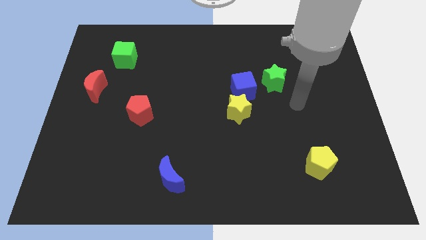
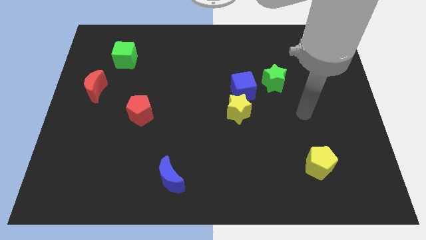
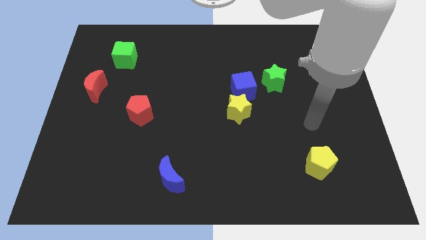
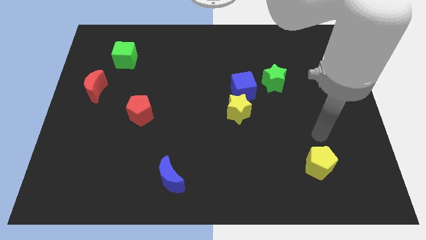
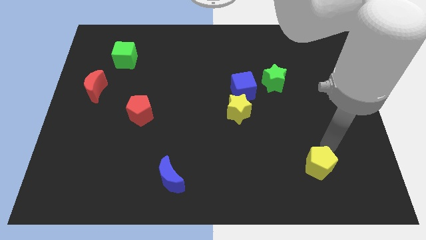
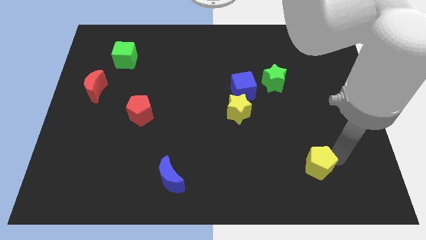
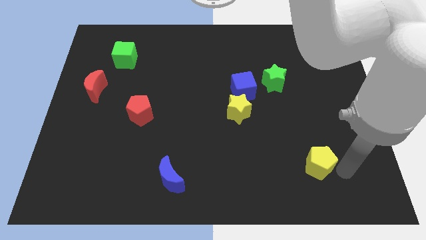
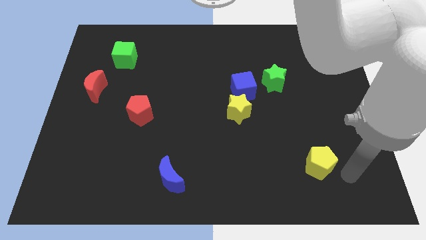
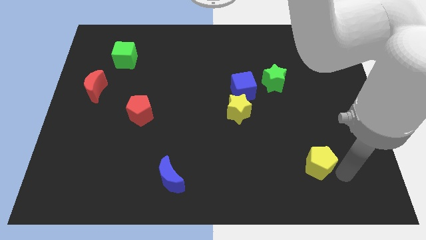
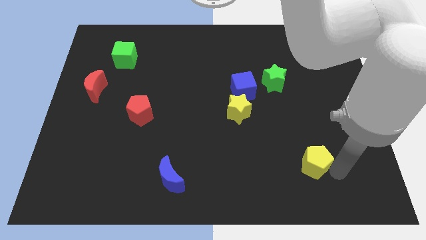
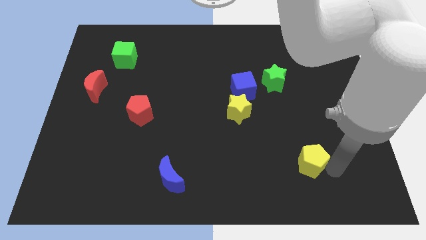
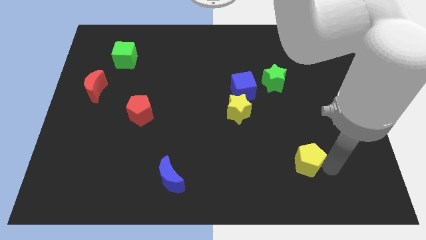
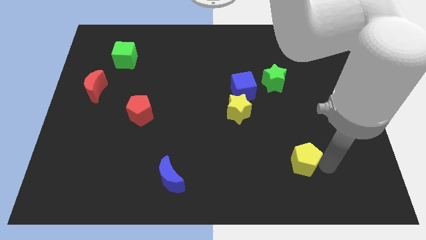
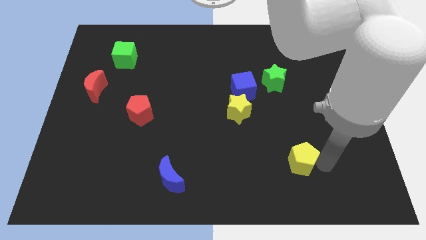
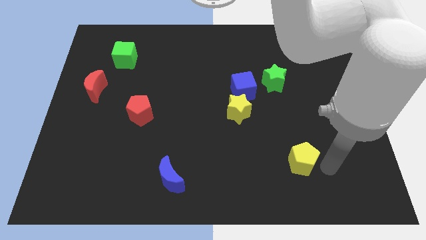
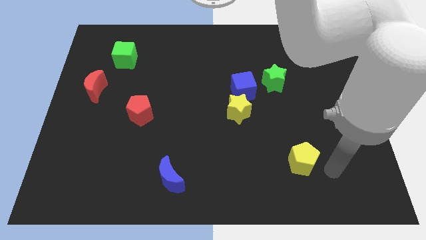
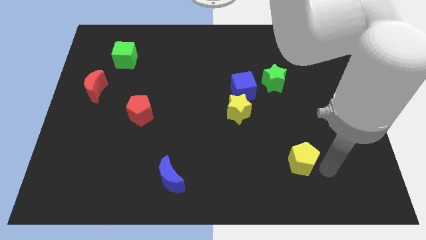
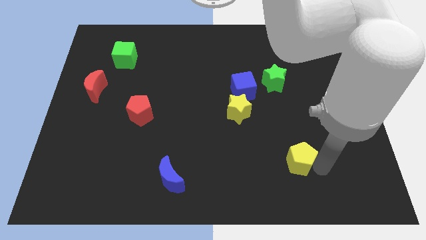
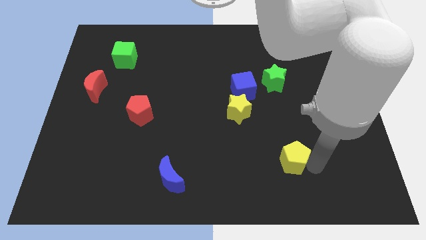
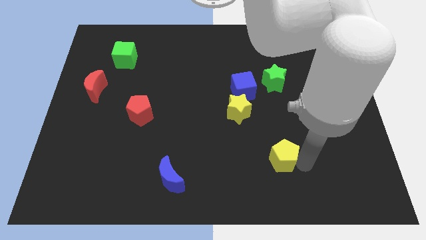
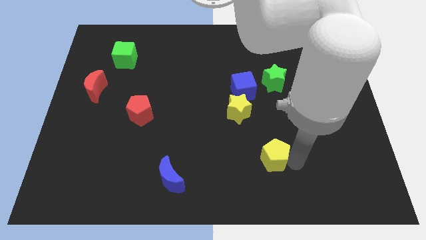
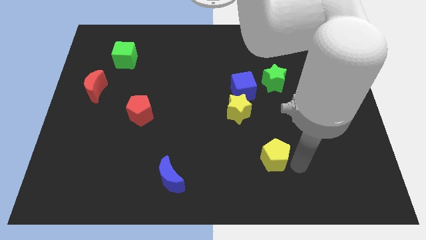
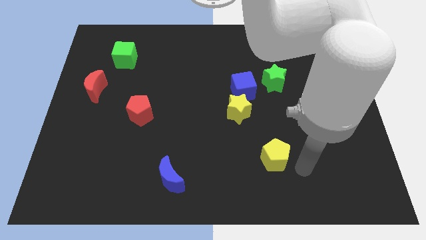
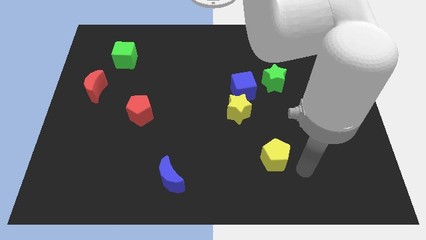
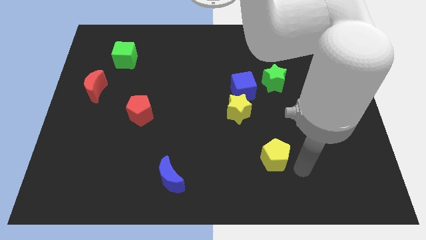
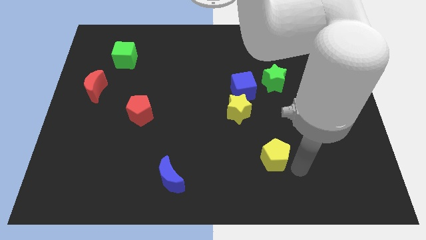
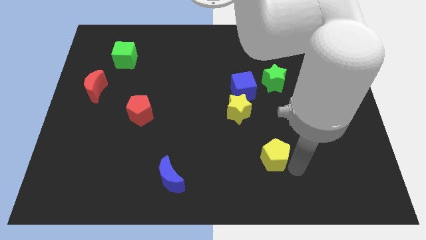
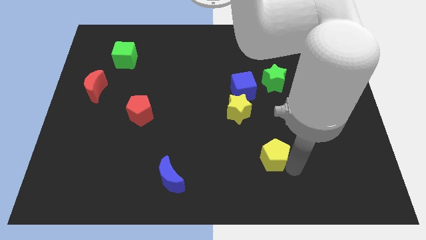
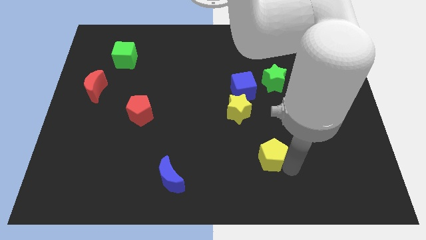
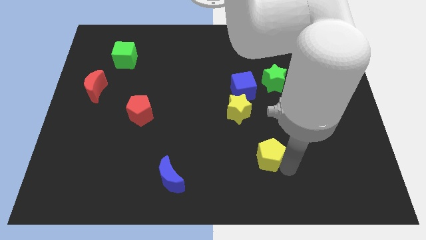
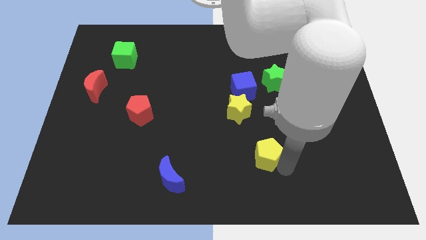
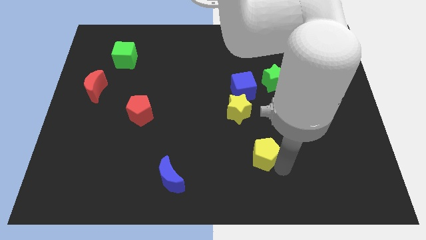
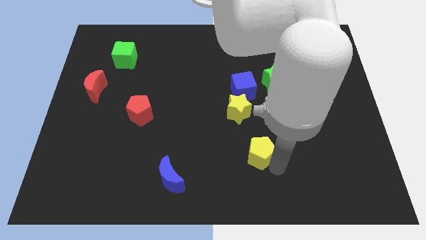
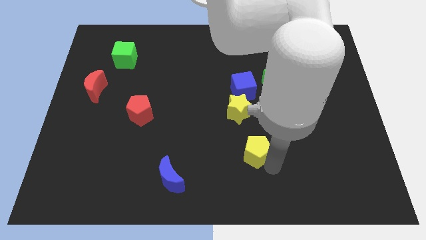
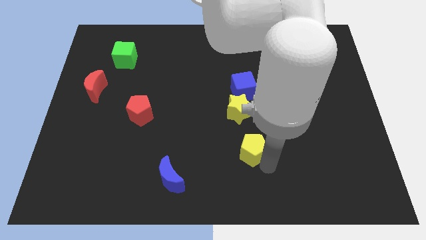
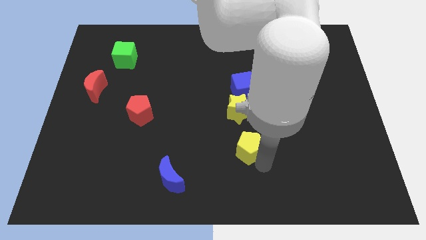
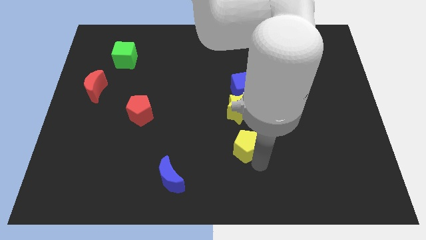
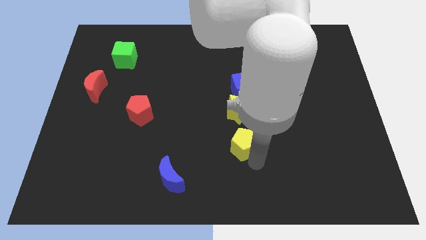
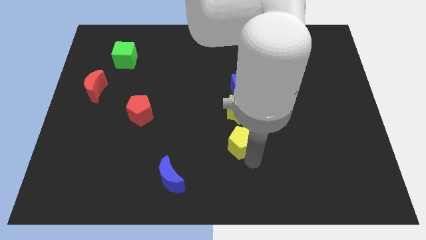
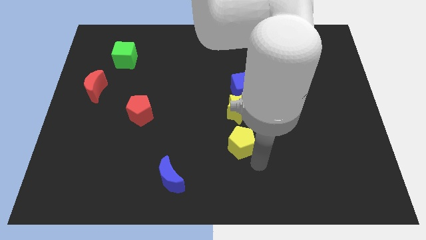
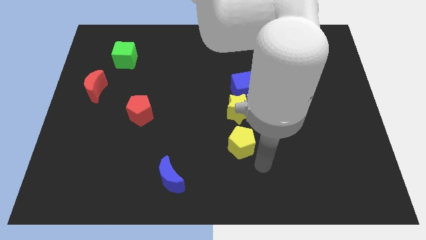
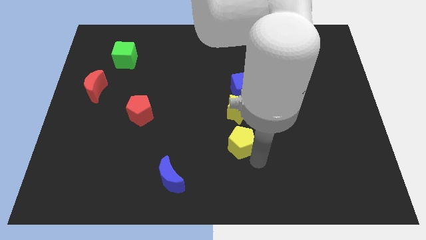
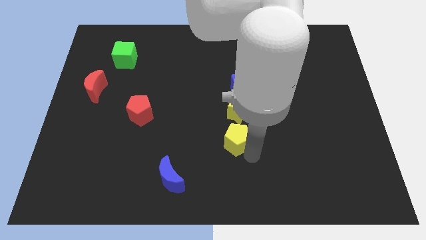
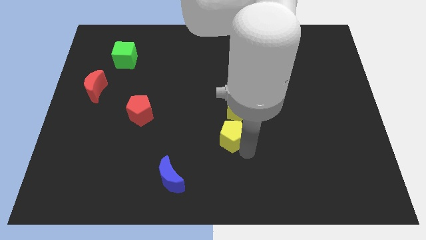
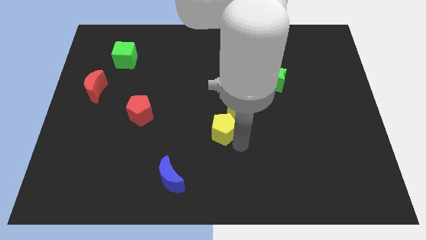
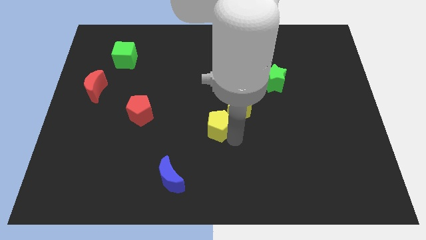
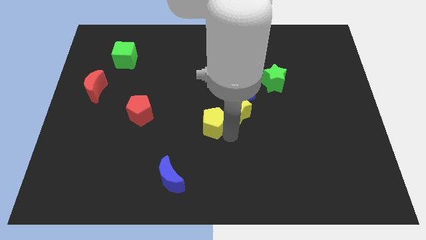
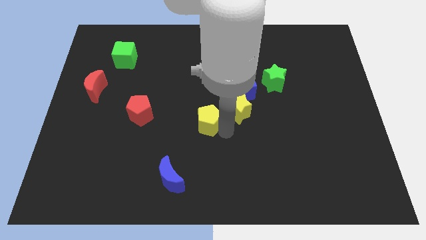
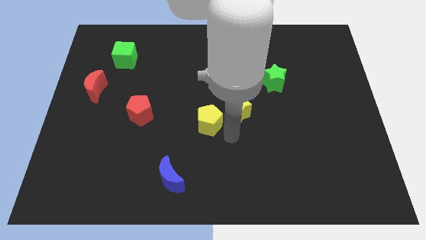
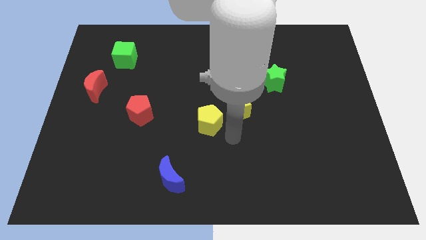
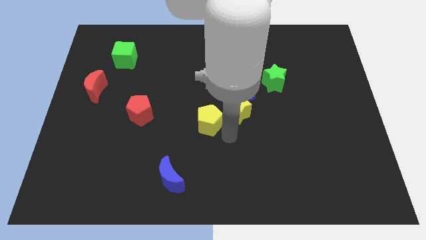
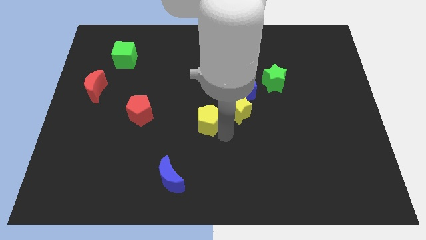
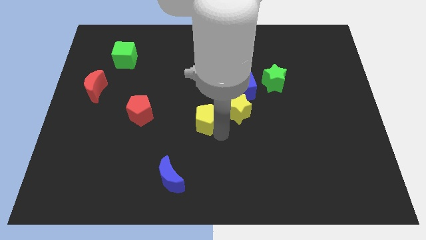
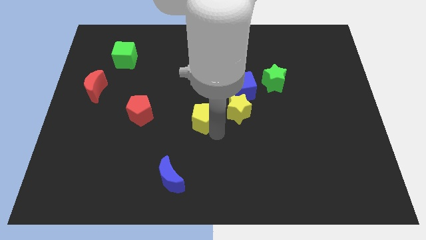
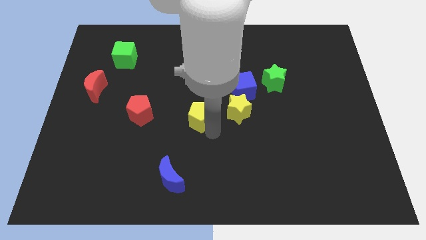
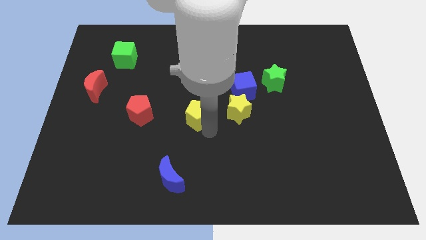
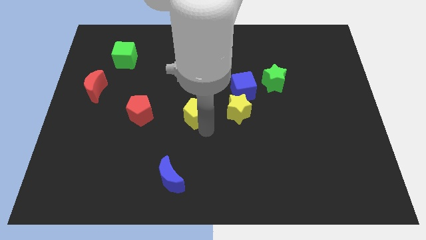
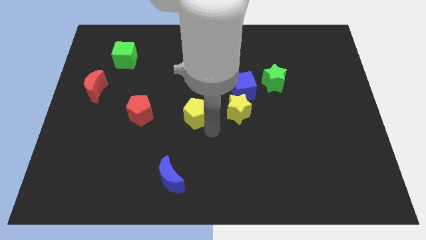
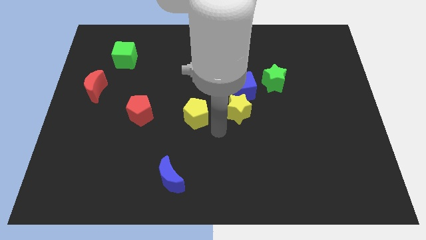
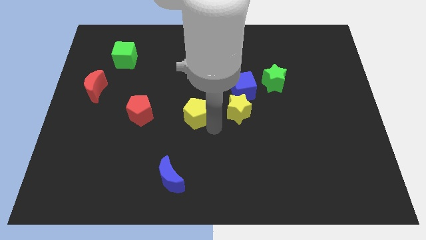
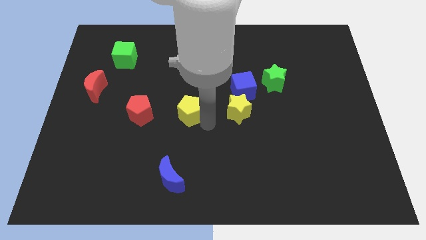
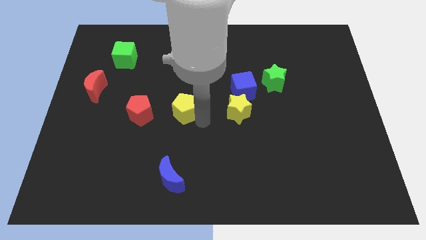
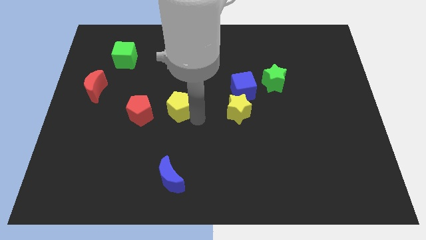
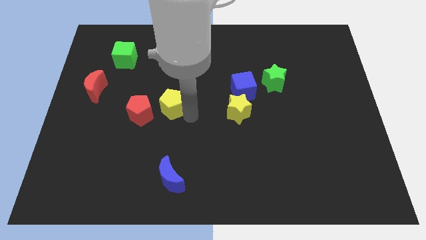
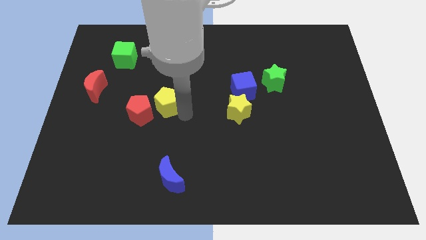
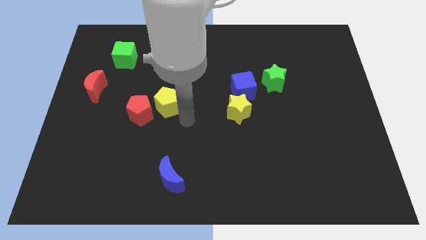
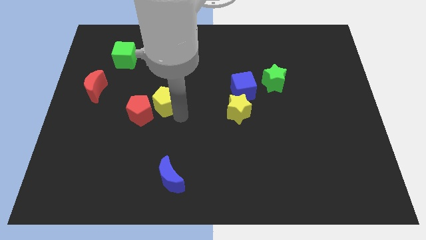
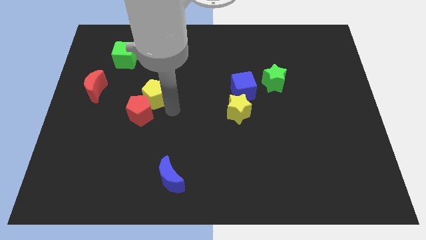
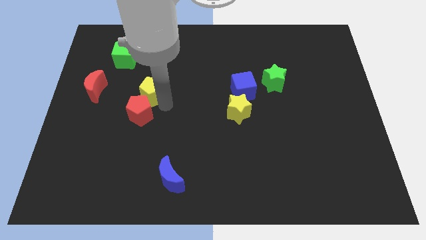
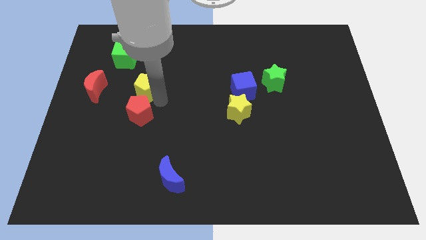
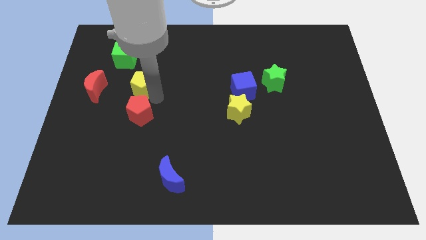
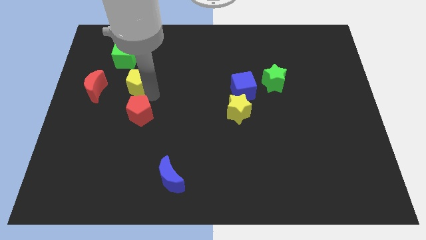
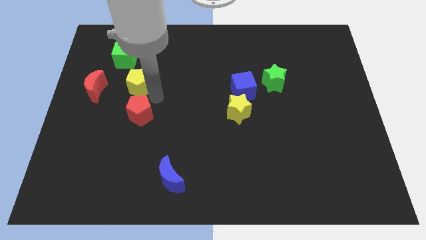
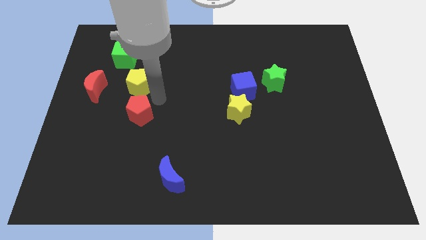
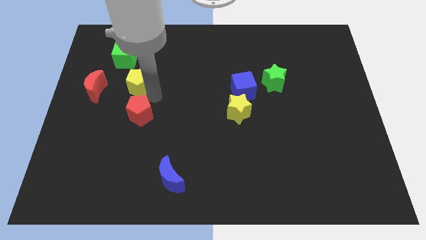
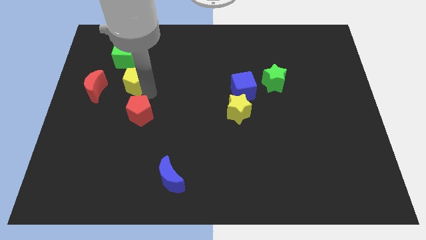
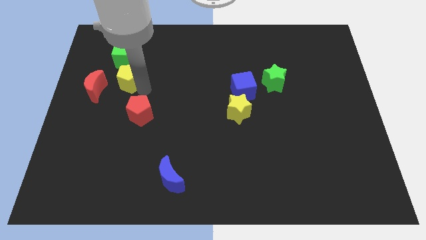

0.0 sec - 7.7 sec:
slide the yellow pentagon to the top right side of the red moon

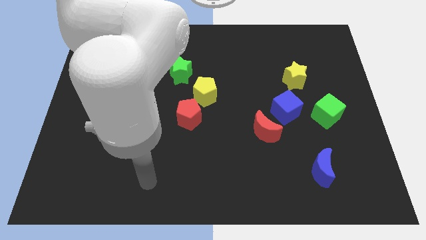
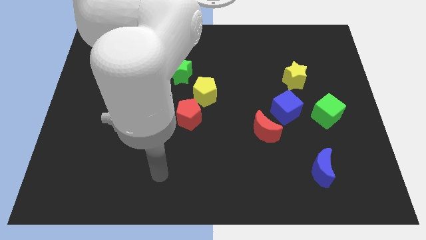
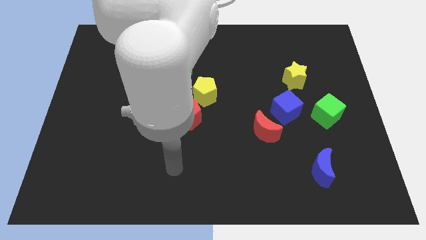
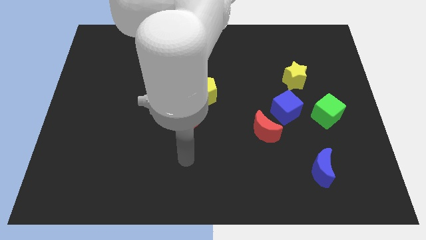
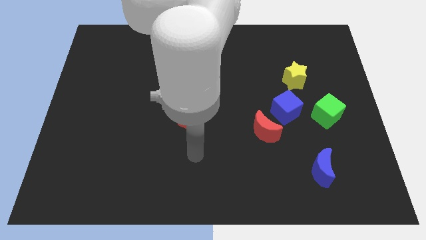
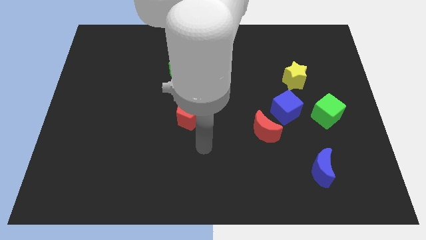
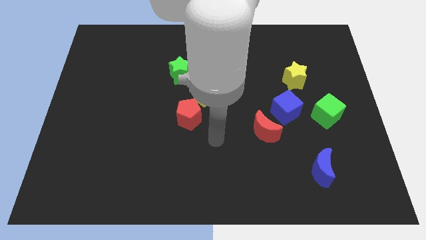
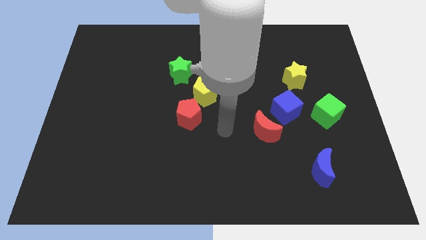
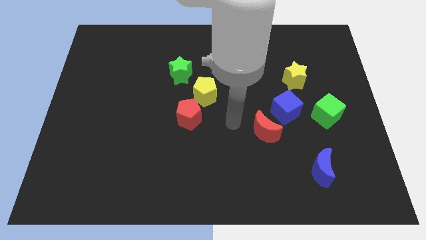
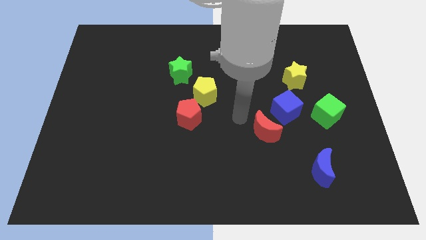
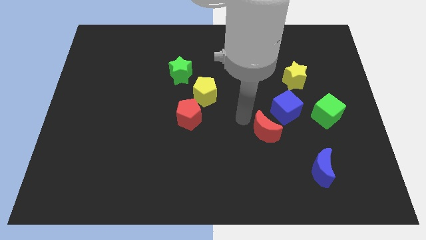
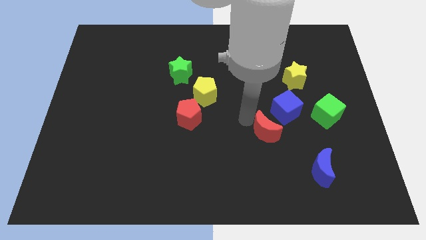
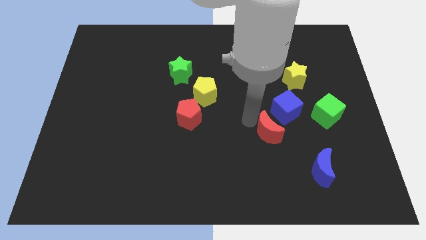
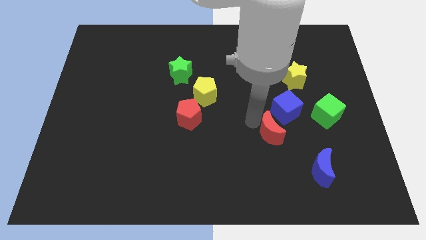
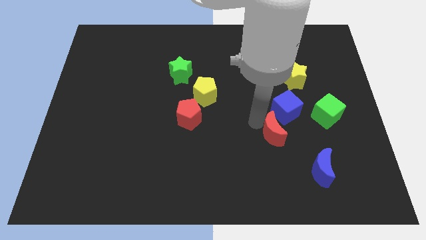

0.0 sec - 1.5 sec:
put the red moon to the top left of the blue moon
